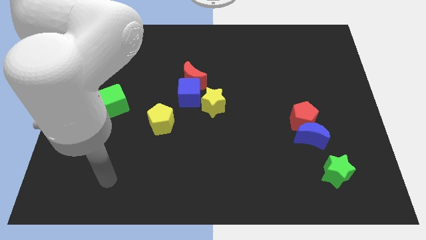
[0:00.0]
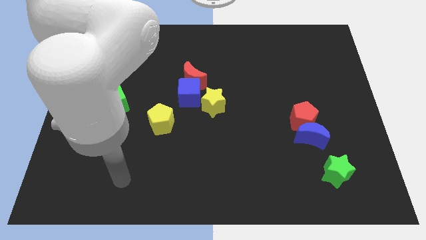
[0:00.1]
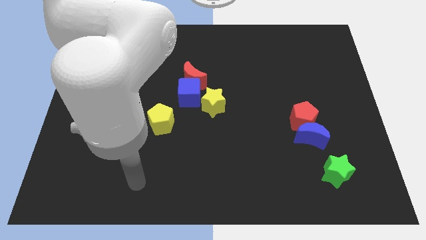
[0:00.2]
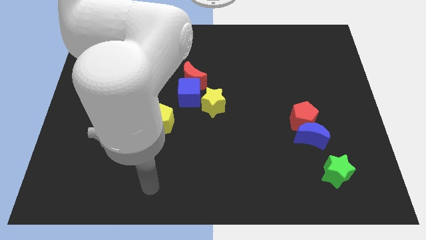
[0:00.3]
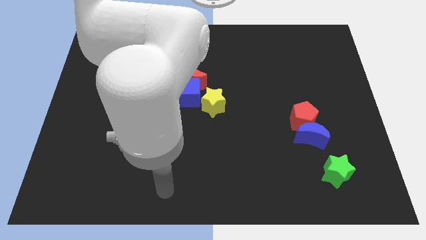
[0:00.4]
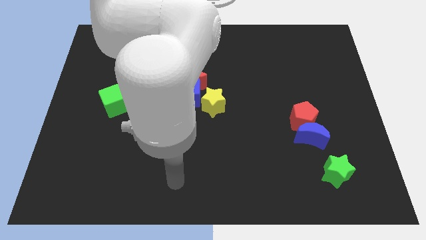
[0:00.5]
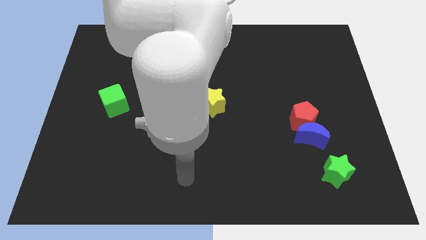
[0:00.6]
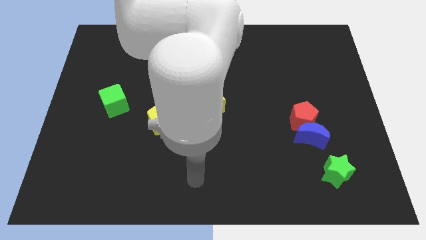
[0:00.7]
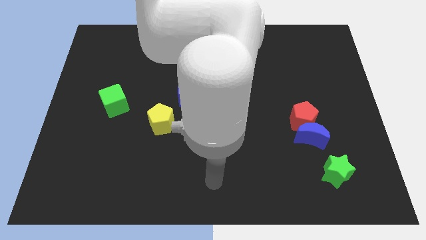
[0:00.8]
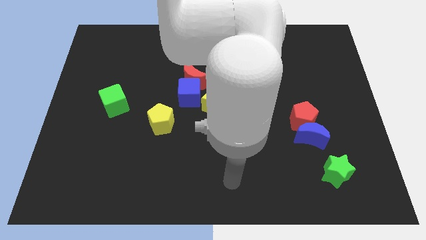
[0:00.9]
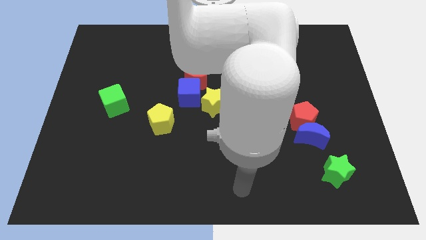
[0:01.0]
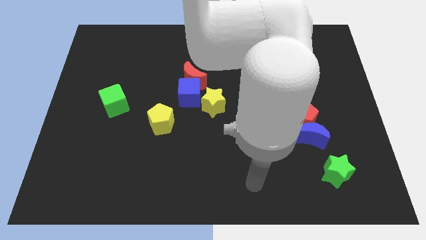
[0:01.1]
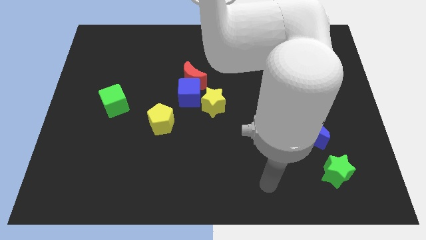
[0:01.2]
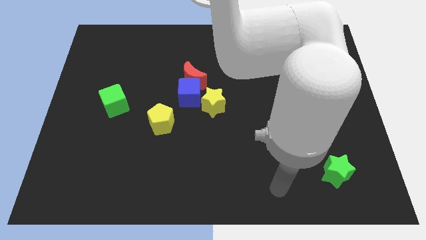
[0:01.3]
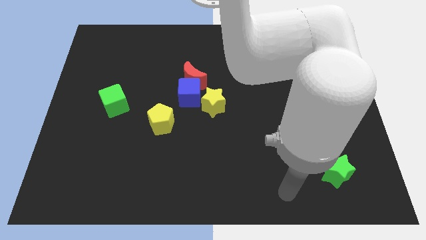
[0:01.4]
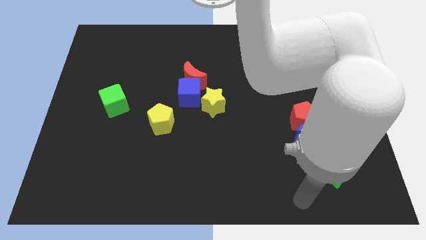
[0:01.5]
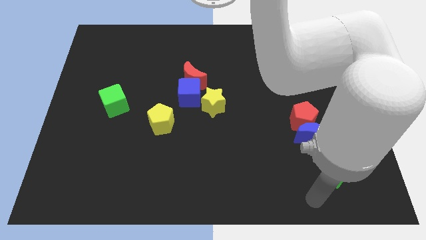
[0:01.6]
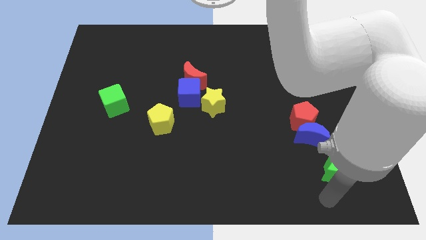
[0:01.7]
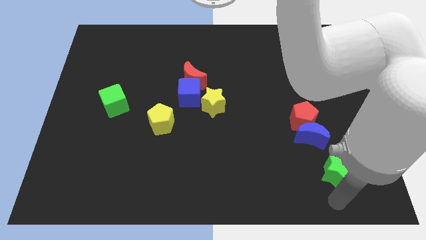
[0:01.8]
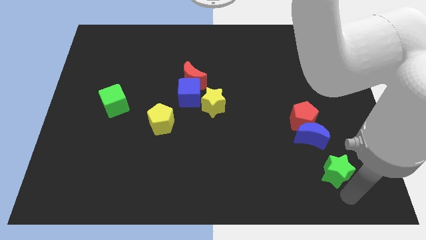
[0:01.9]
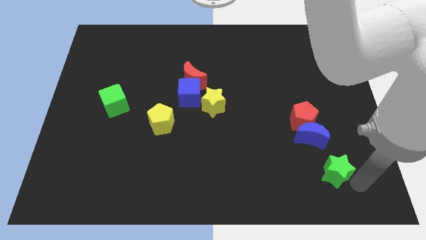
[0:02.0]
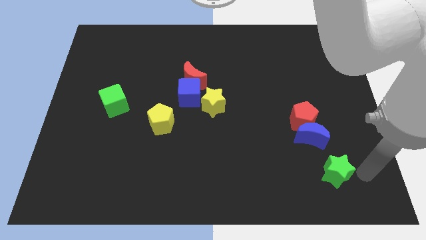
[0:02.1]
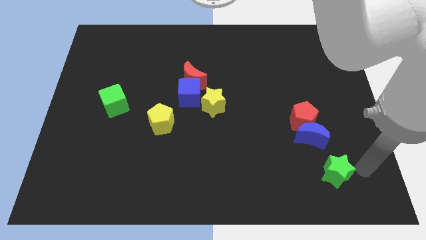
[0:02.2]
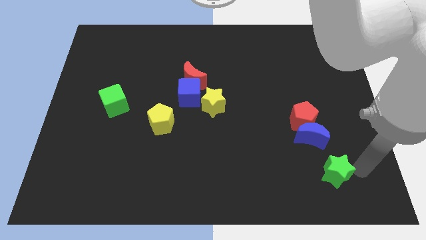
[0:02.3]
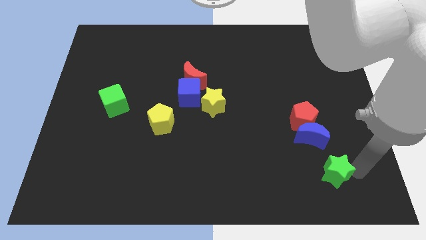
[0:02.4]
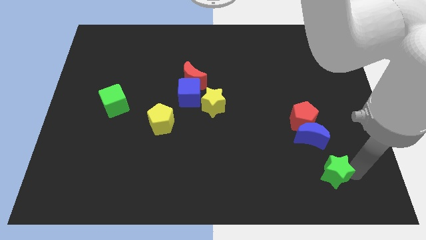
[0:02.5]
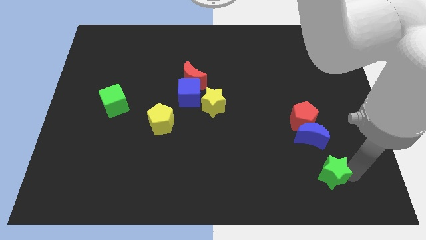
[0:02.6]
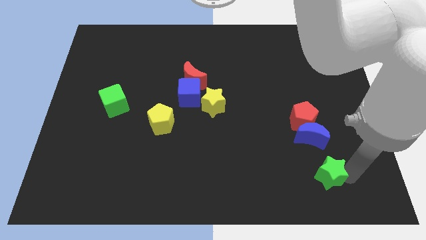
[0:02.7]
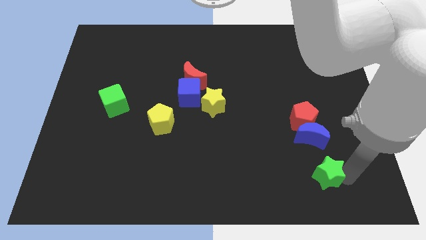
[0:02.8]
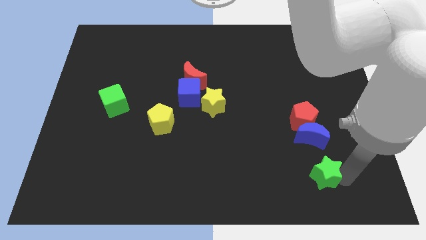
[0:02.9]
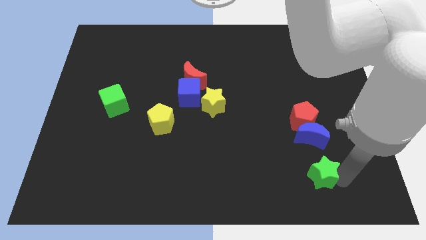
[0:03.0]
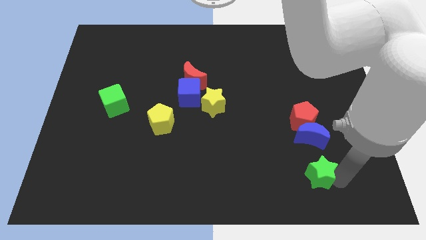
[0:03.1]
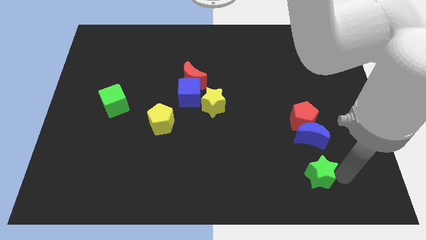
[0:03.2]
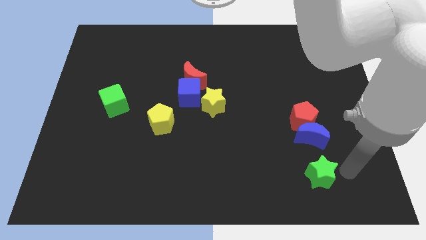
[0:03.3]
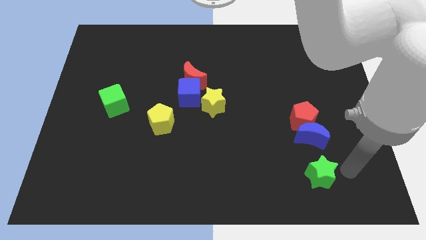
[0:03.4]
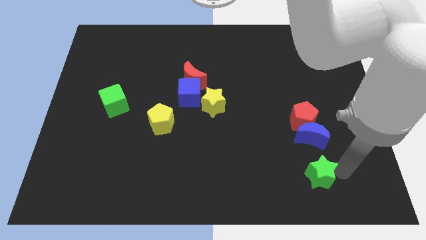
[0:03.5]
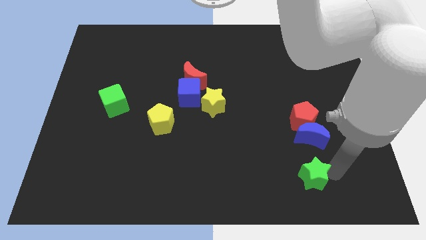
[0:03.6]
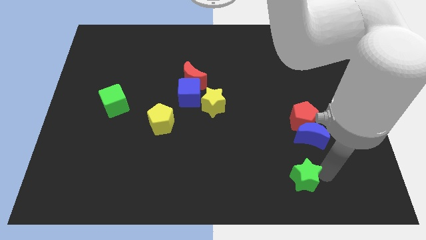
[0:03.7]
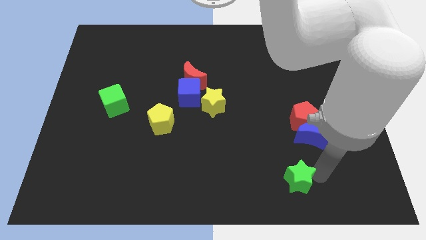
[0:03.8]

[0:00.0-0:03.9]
push the green star a bit to the left

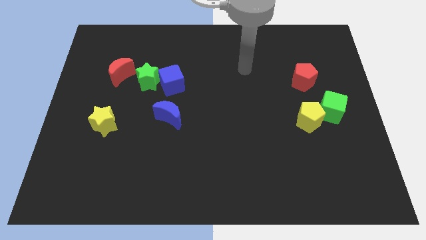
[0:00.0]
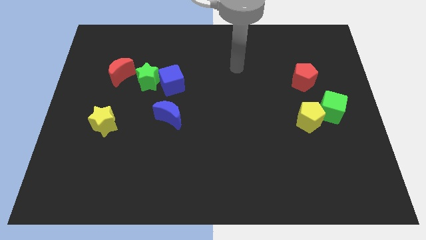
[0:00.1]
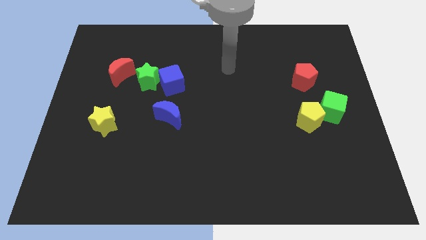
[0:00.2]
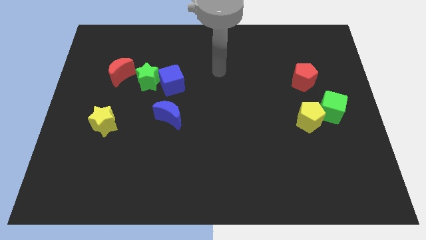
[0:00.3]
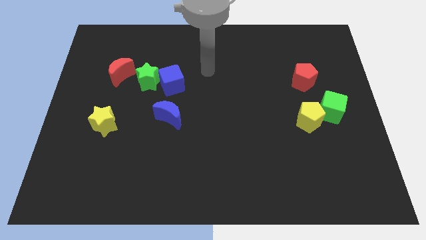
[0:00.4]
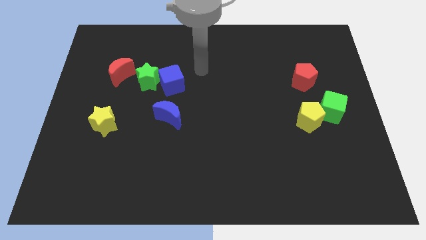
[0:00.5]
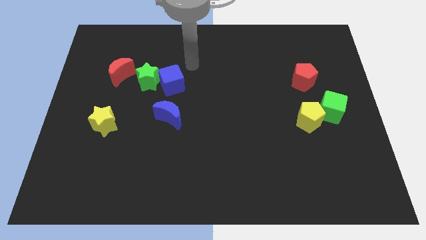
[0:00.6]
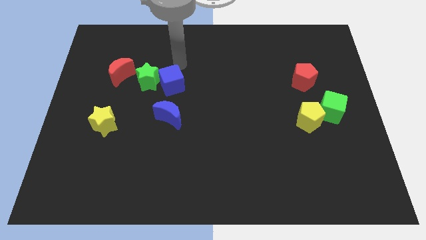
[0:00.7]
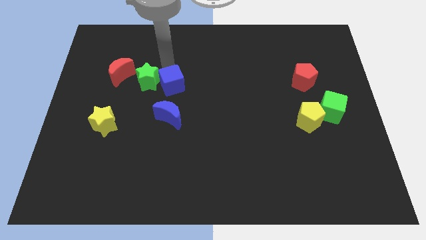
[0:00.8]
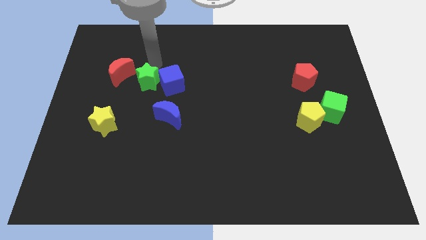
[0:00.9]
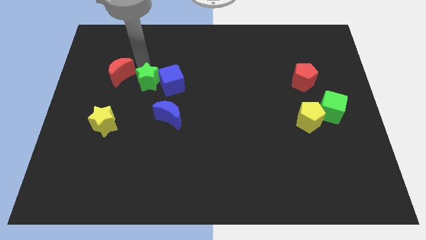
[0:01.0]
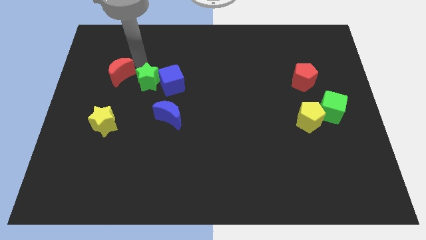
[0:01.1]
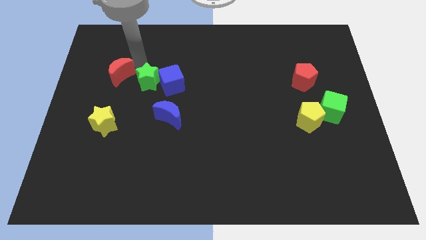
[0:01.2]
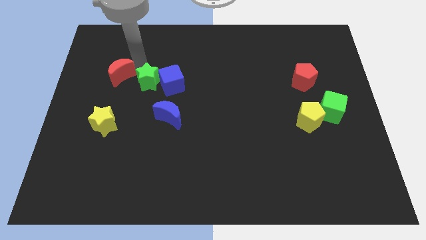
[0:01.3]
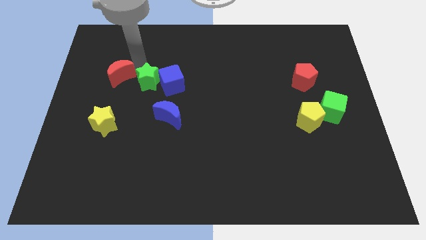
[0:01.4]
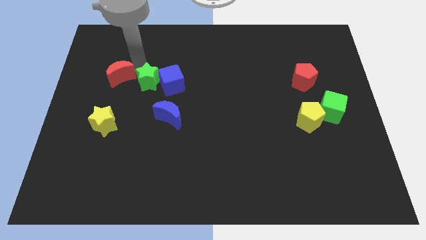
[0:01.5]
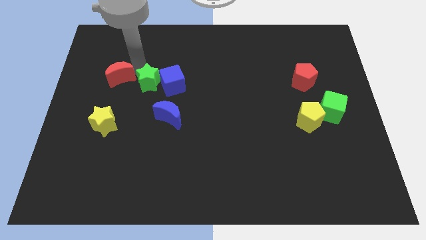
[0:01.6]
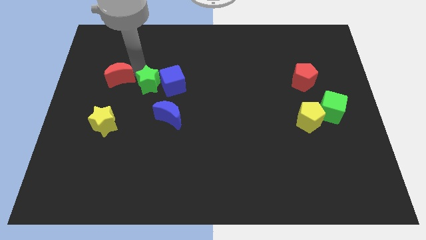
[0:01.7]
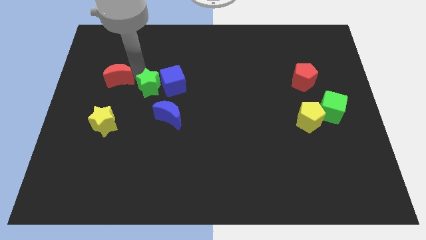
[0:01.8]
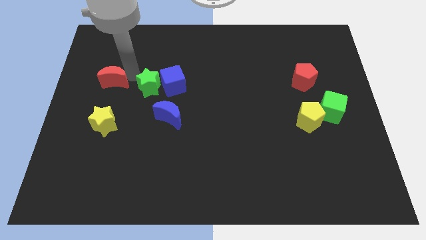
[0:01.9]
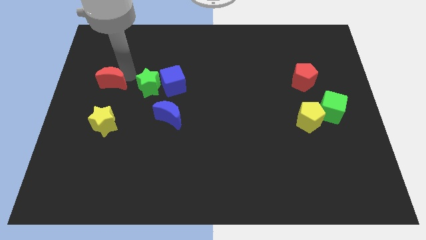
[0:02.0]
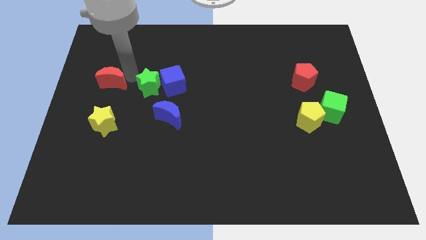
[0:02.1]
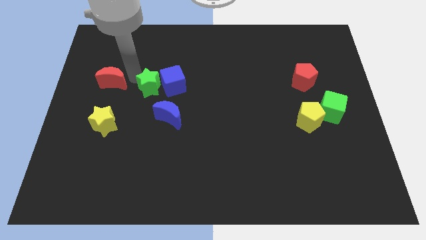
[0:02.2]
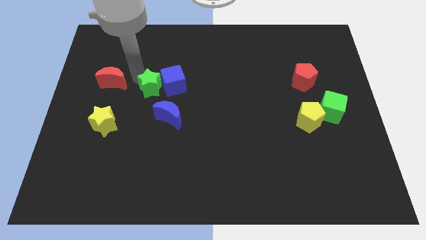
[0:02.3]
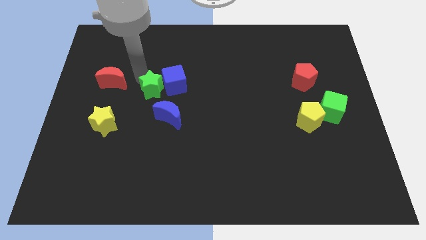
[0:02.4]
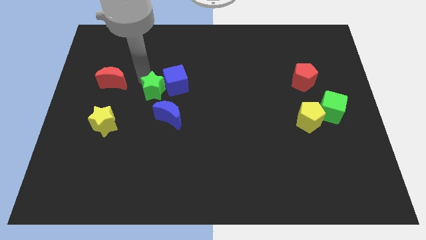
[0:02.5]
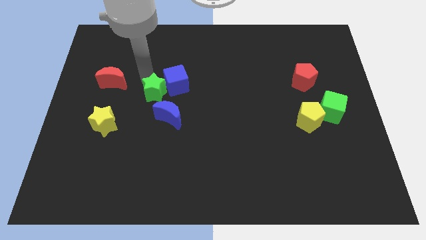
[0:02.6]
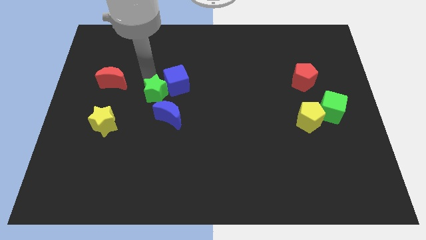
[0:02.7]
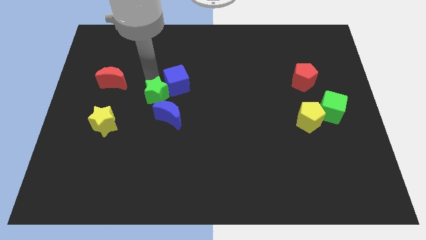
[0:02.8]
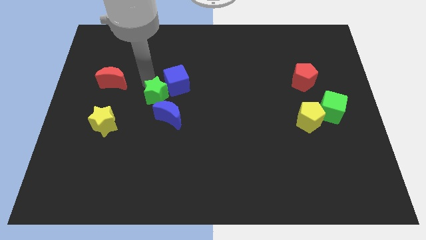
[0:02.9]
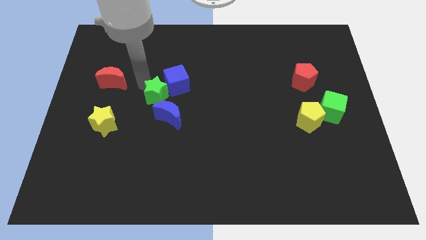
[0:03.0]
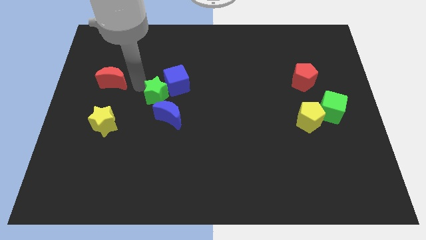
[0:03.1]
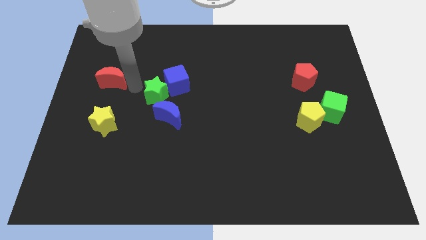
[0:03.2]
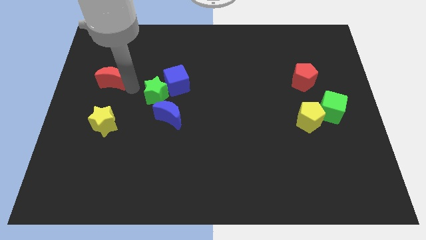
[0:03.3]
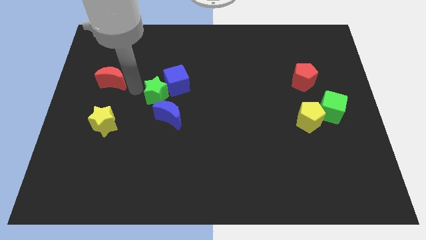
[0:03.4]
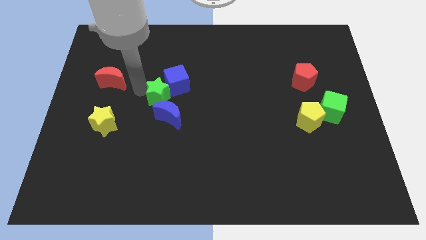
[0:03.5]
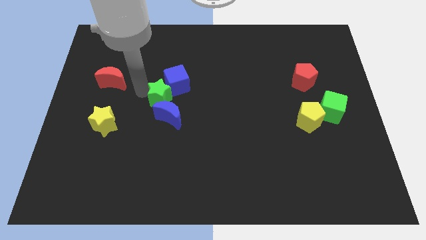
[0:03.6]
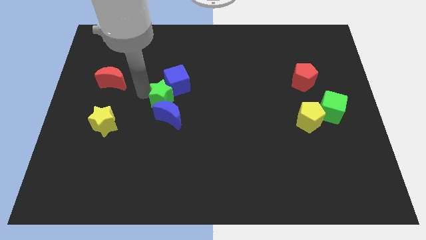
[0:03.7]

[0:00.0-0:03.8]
slightly slide the green star diagonally downwards and right

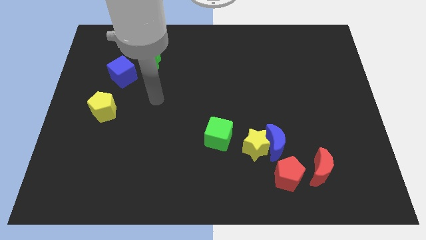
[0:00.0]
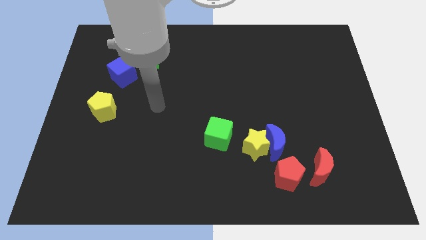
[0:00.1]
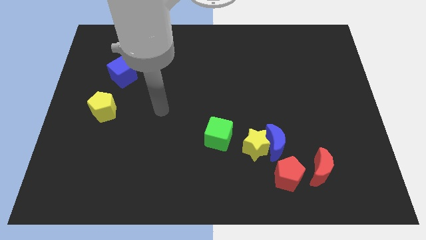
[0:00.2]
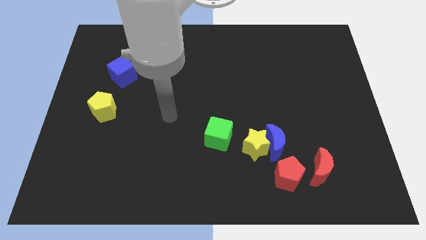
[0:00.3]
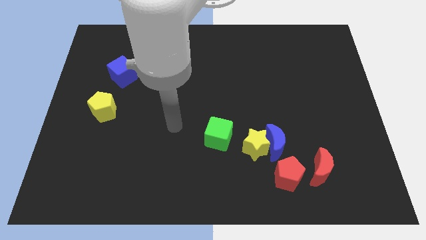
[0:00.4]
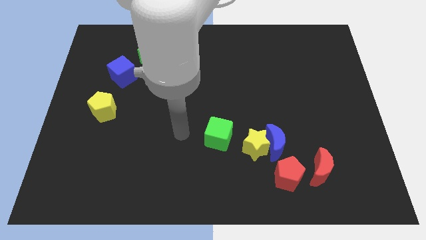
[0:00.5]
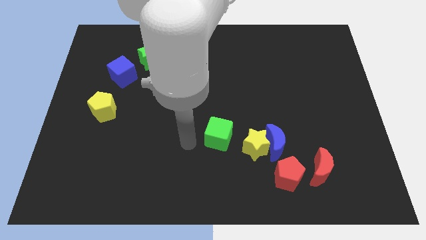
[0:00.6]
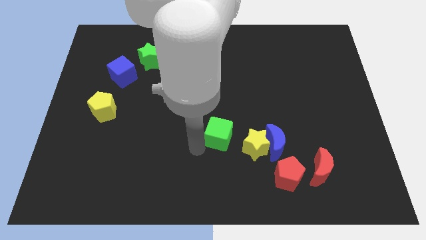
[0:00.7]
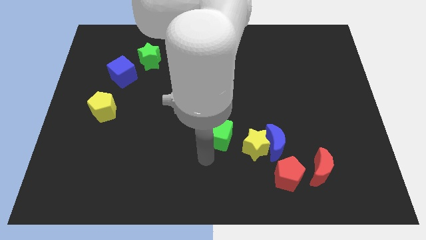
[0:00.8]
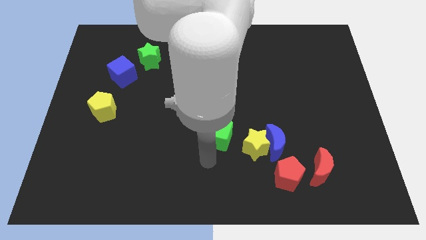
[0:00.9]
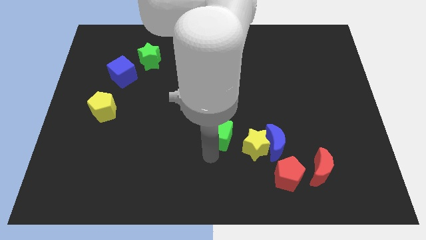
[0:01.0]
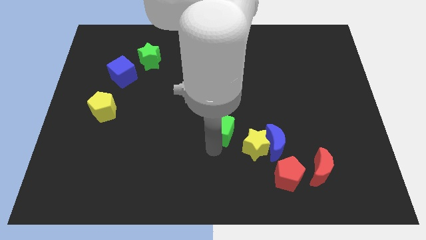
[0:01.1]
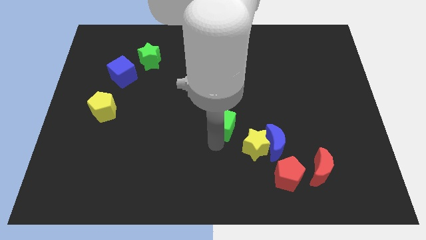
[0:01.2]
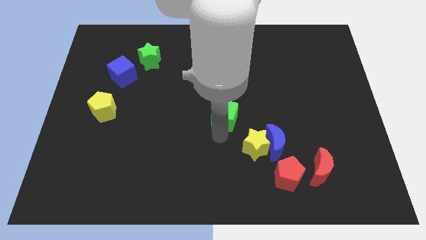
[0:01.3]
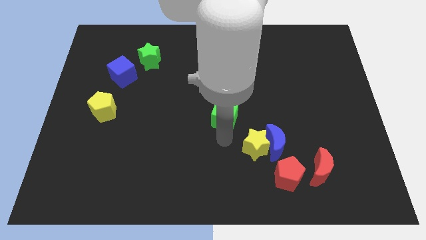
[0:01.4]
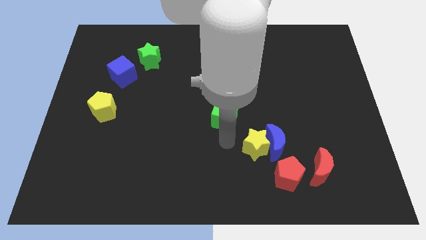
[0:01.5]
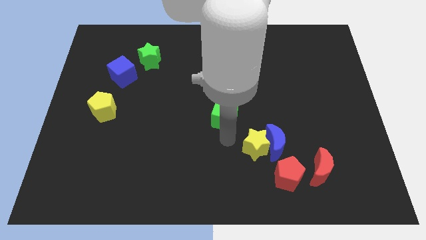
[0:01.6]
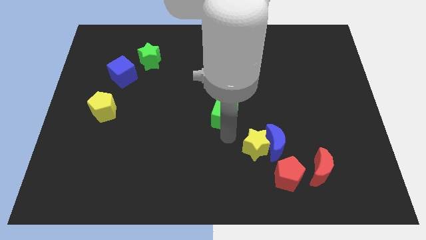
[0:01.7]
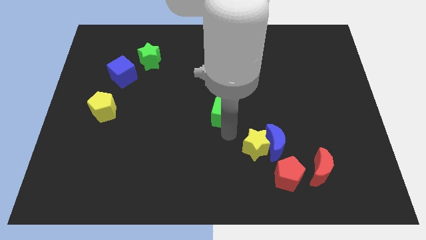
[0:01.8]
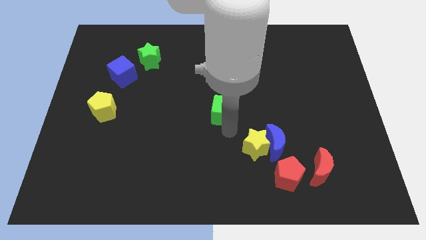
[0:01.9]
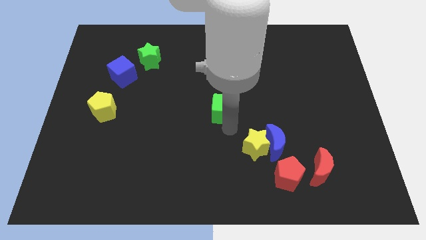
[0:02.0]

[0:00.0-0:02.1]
slide the green cube upwards a bit
